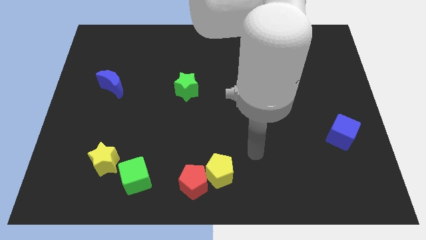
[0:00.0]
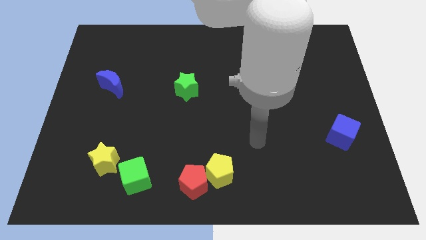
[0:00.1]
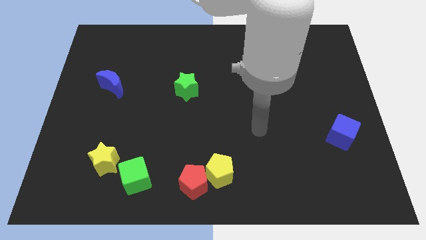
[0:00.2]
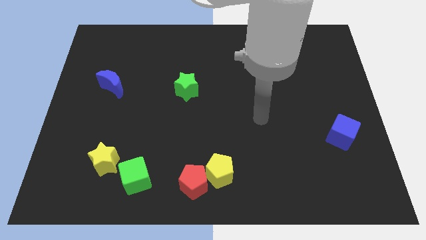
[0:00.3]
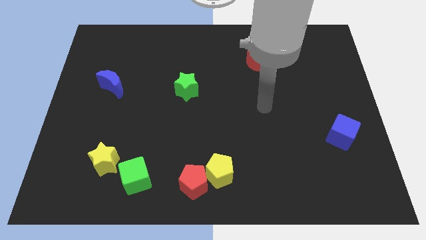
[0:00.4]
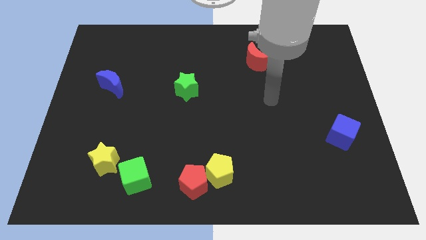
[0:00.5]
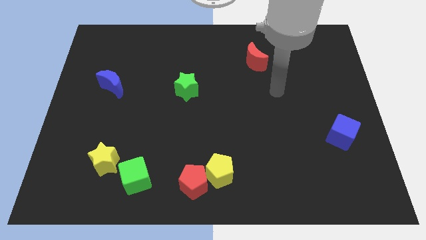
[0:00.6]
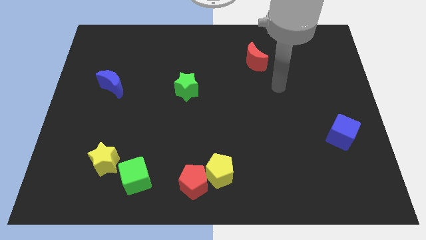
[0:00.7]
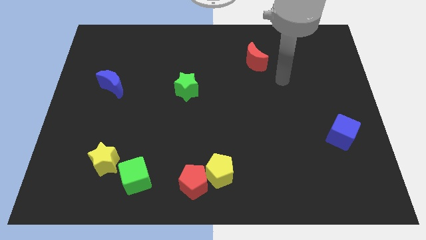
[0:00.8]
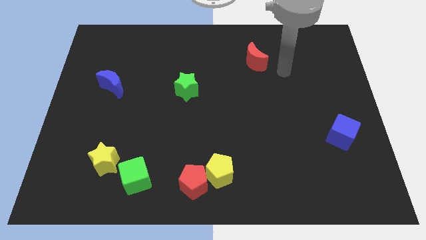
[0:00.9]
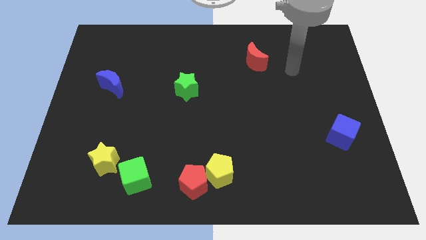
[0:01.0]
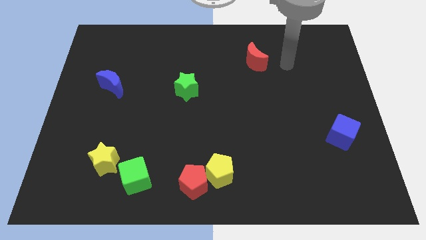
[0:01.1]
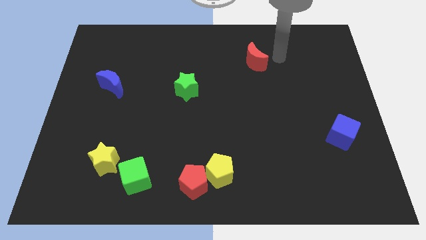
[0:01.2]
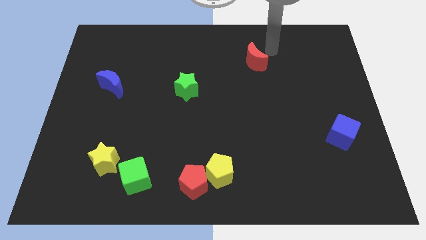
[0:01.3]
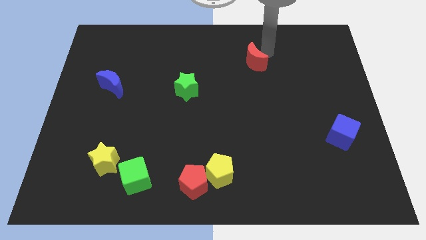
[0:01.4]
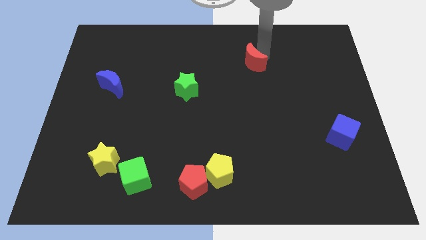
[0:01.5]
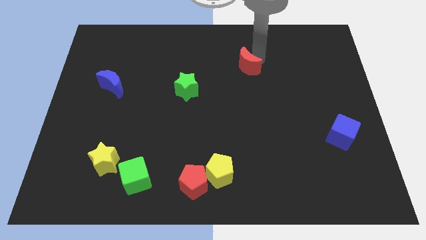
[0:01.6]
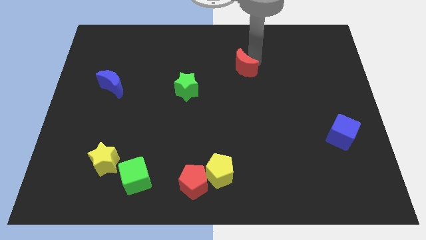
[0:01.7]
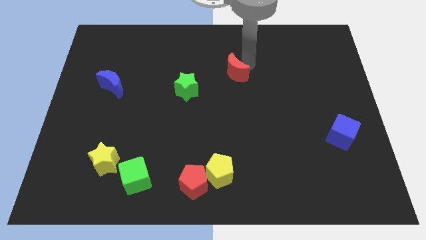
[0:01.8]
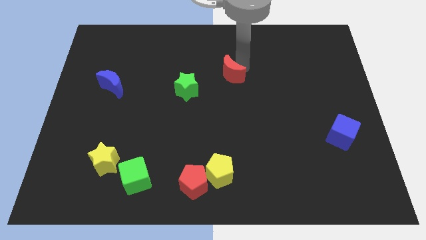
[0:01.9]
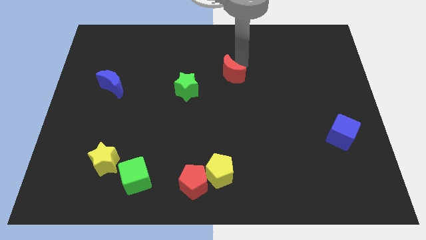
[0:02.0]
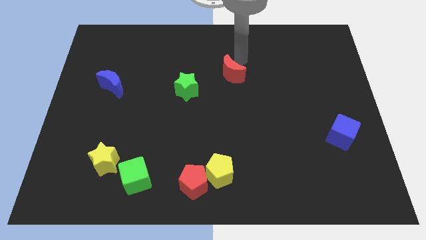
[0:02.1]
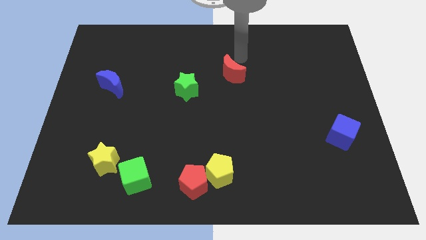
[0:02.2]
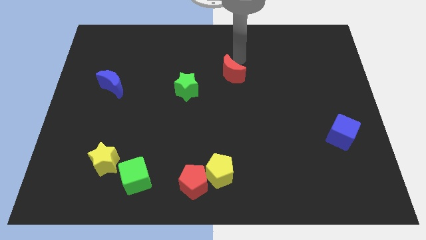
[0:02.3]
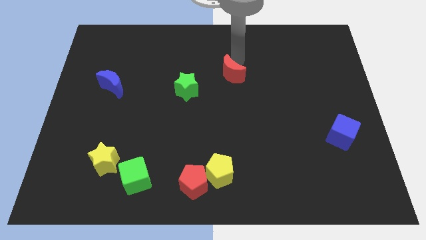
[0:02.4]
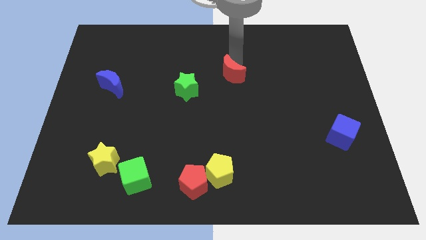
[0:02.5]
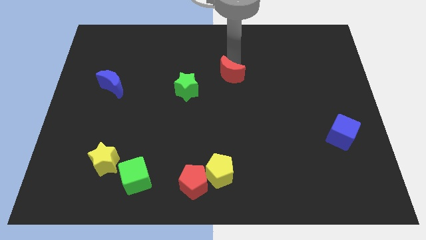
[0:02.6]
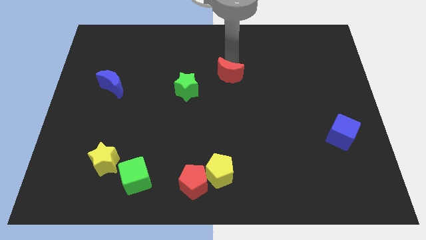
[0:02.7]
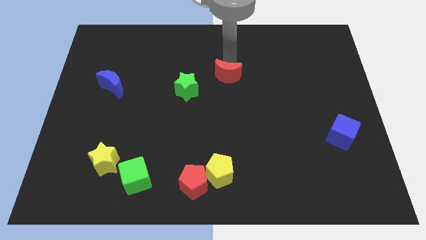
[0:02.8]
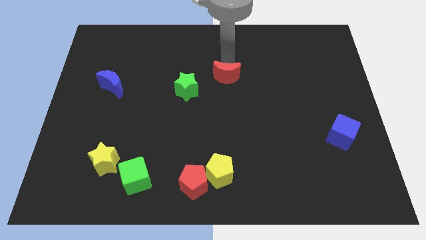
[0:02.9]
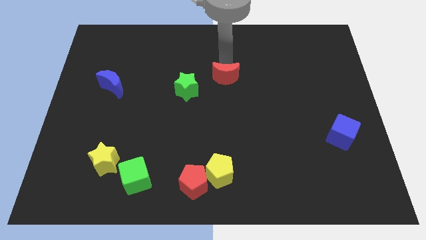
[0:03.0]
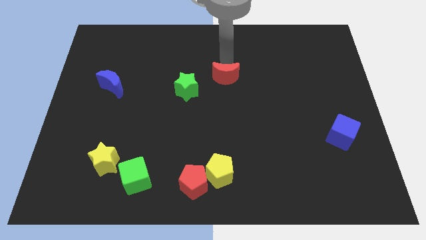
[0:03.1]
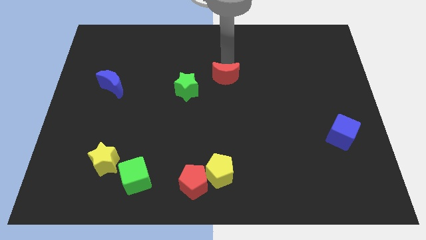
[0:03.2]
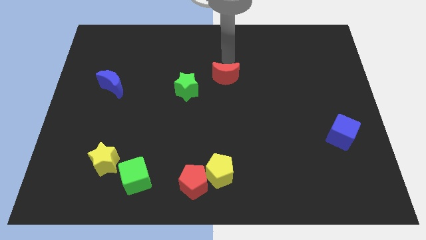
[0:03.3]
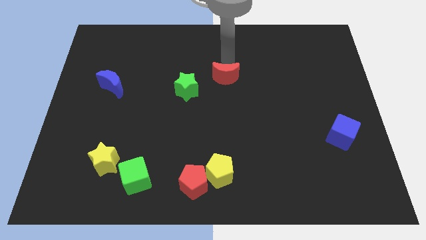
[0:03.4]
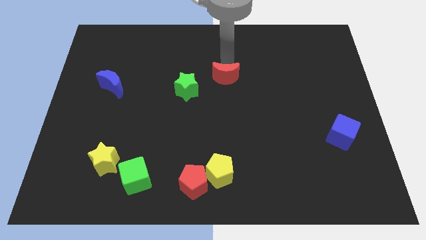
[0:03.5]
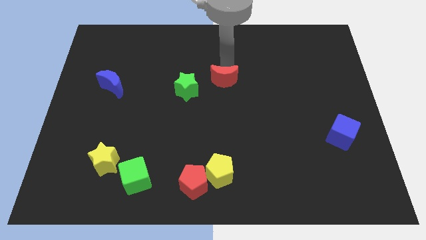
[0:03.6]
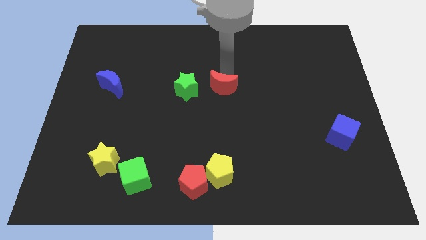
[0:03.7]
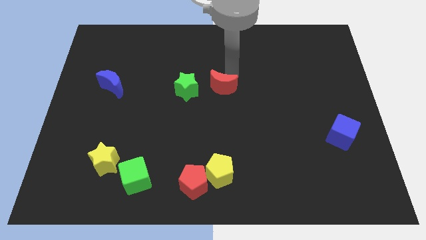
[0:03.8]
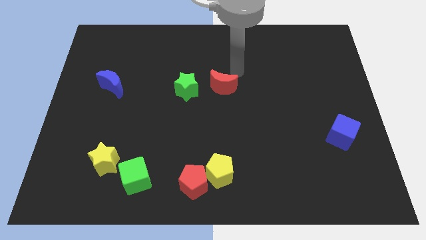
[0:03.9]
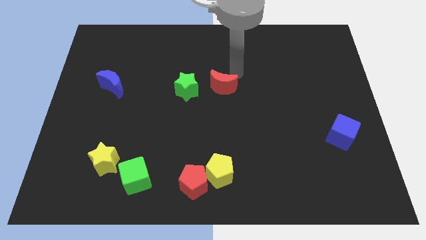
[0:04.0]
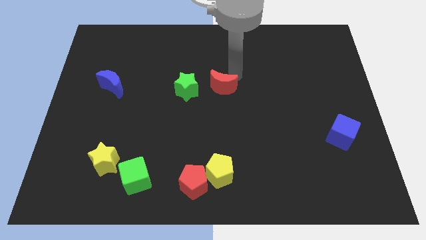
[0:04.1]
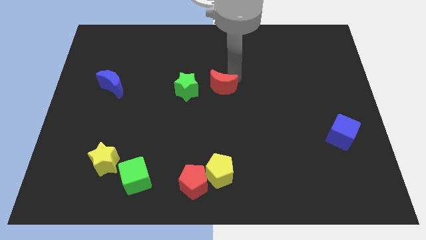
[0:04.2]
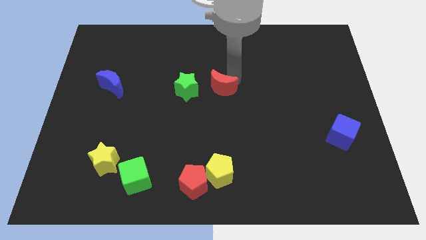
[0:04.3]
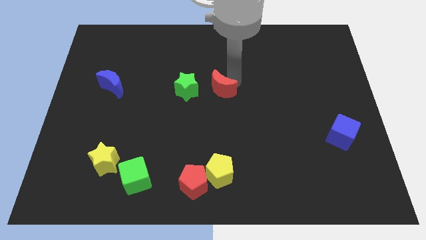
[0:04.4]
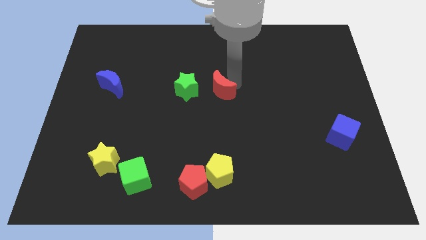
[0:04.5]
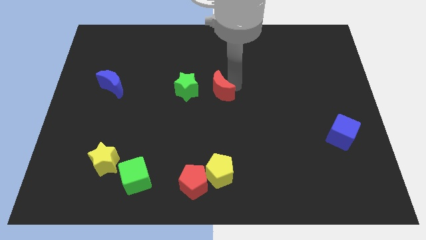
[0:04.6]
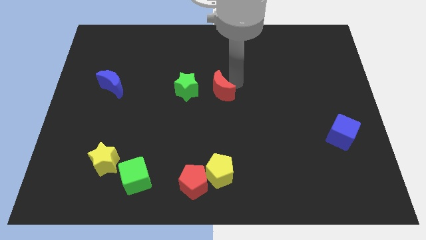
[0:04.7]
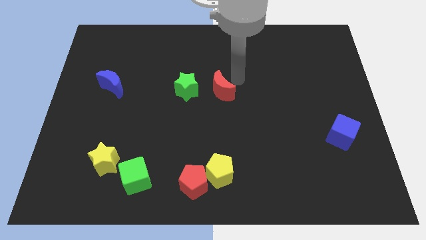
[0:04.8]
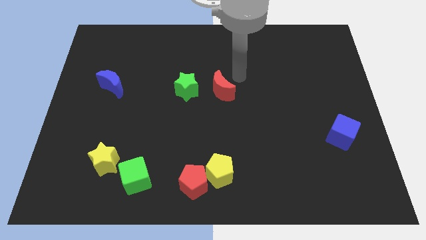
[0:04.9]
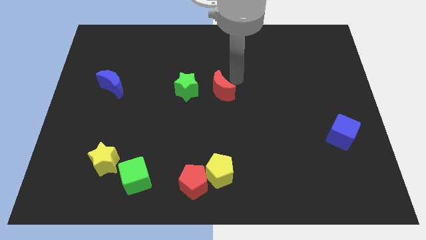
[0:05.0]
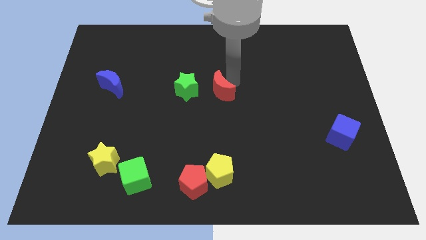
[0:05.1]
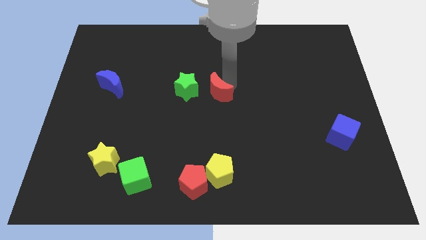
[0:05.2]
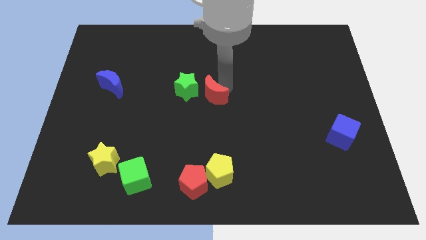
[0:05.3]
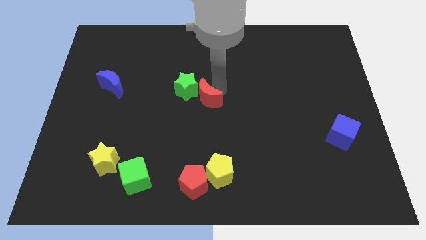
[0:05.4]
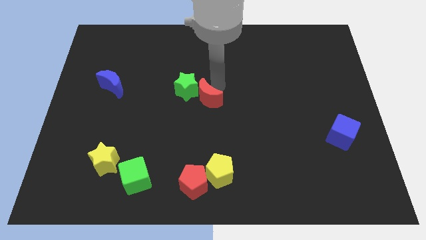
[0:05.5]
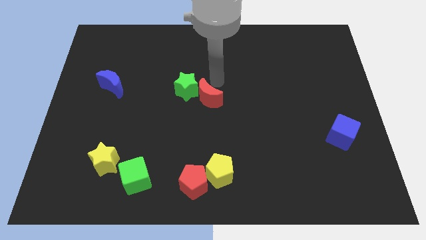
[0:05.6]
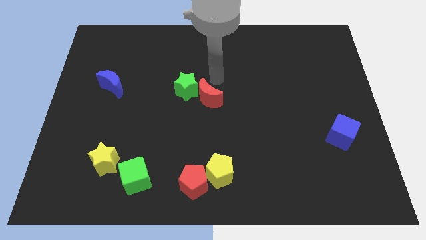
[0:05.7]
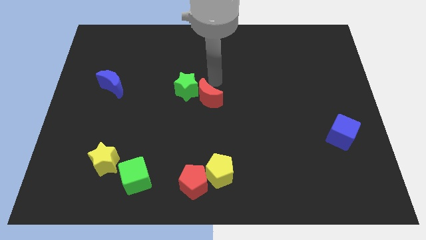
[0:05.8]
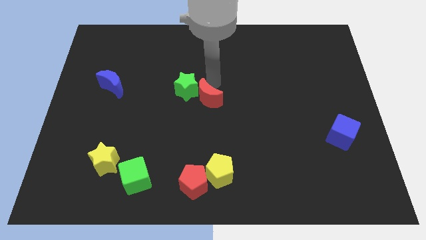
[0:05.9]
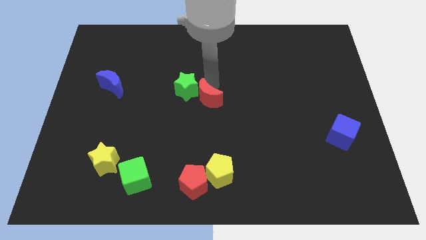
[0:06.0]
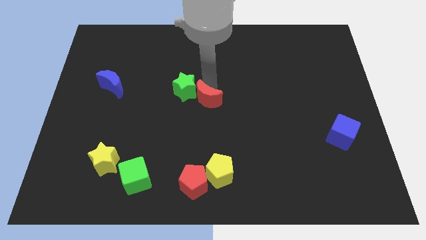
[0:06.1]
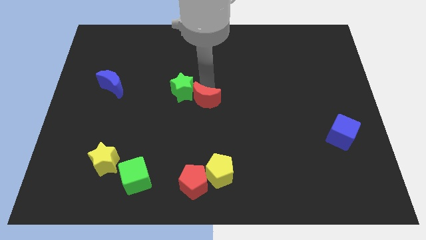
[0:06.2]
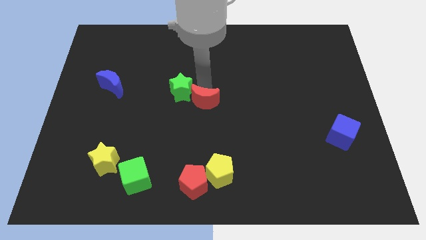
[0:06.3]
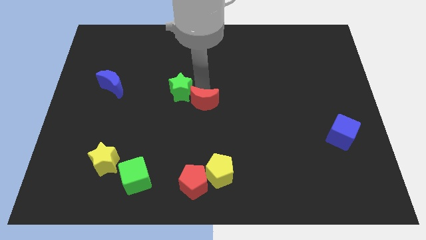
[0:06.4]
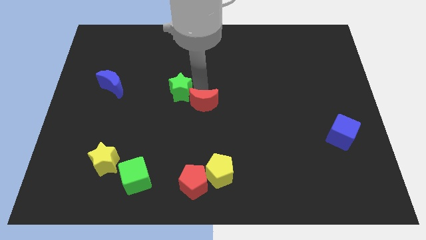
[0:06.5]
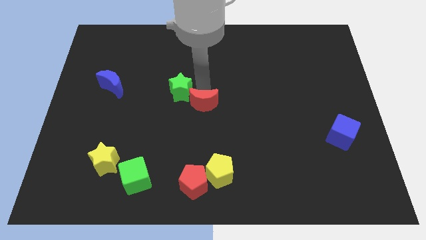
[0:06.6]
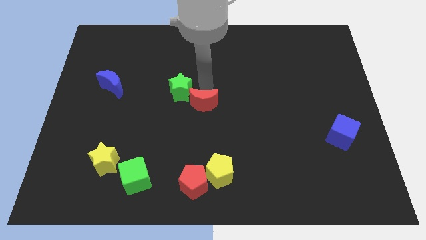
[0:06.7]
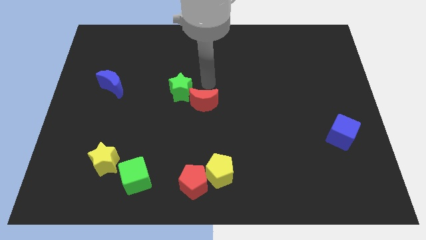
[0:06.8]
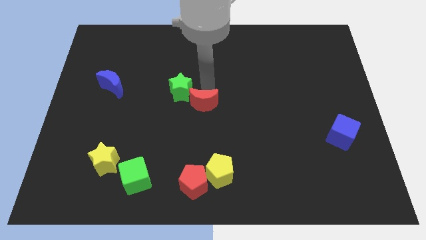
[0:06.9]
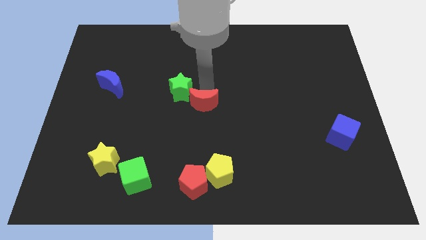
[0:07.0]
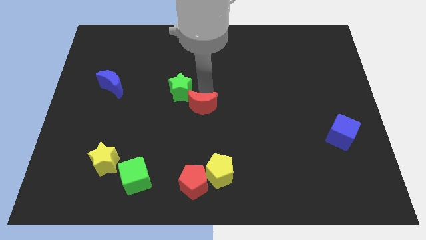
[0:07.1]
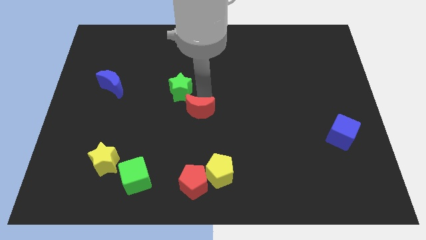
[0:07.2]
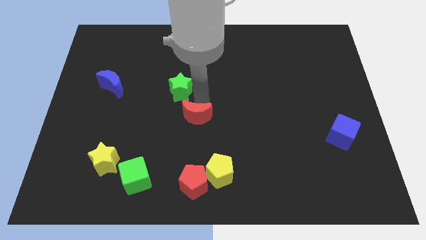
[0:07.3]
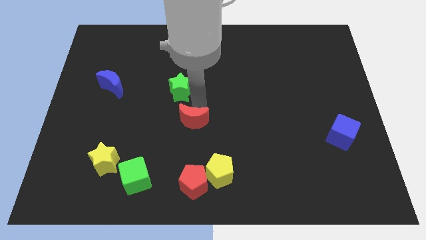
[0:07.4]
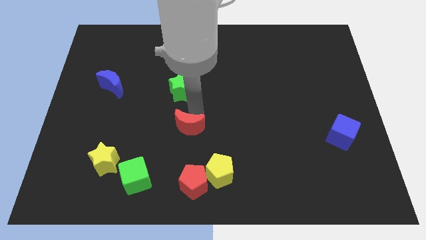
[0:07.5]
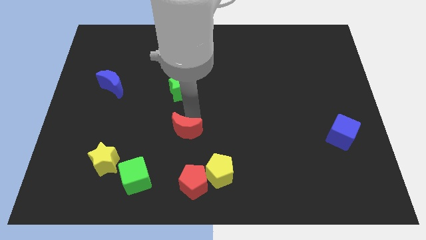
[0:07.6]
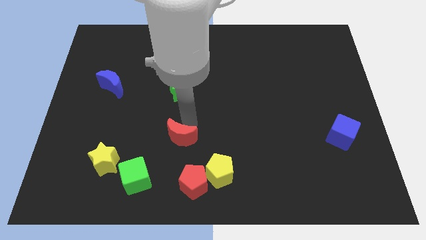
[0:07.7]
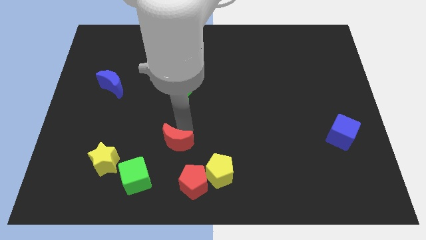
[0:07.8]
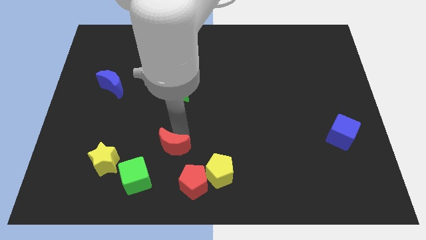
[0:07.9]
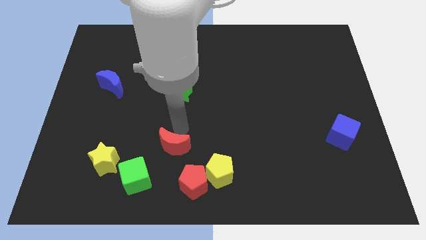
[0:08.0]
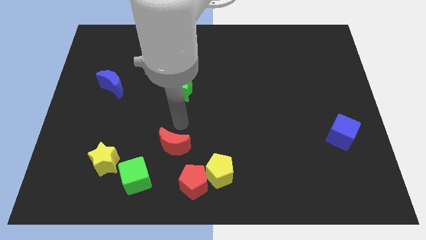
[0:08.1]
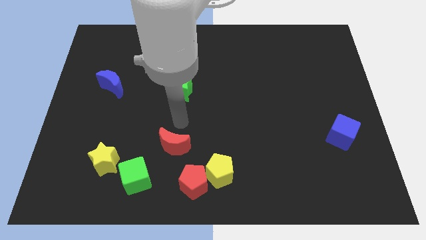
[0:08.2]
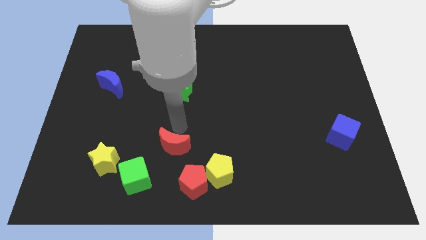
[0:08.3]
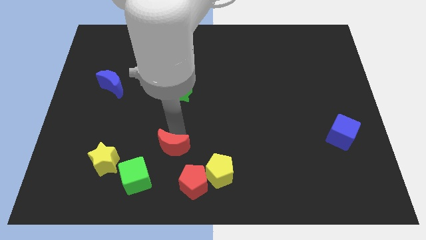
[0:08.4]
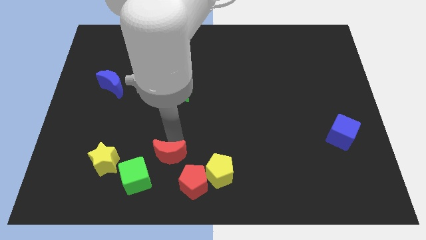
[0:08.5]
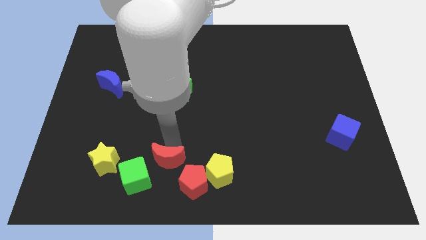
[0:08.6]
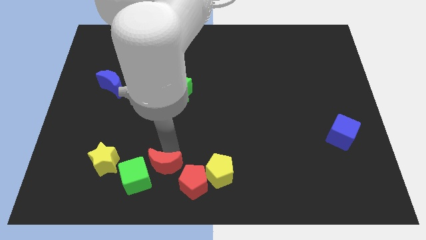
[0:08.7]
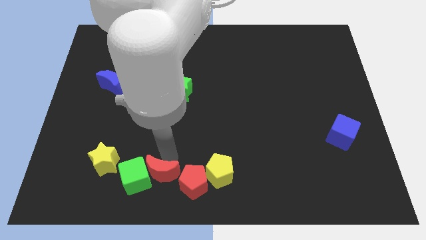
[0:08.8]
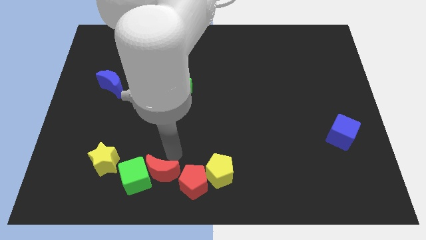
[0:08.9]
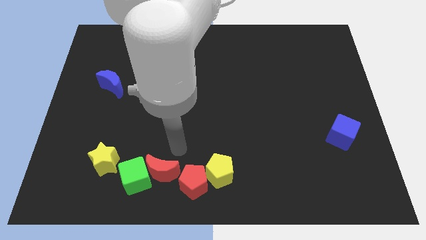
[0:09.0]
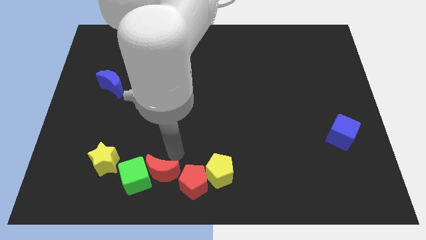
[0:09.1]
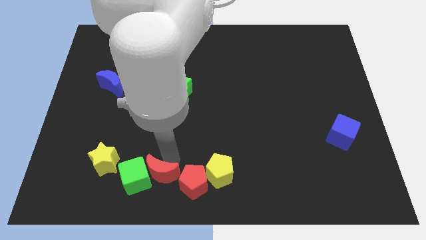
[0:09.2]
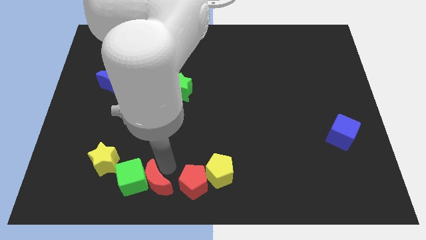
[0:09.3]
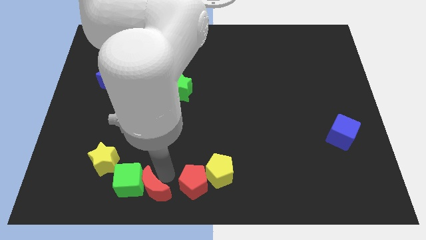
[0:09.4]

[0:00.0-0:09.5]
slide the red moon to the bottom right side of the yellow star
